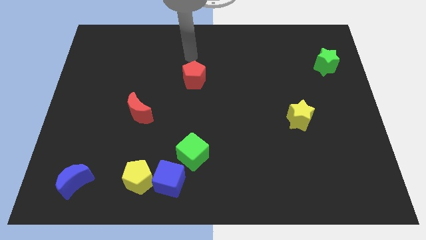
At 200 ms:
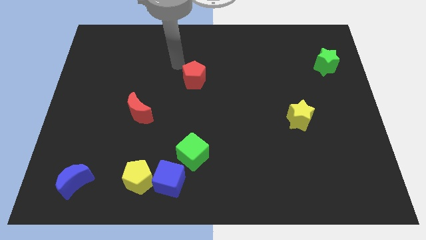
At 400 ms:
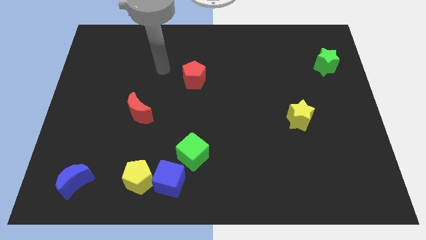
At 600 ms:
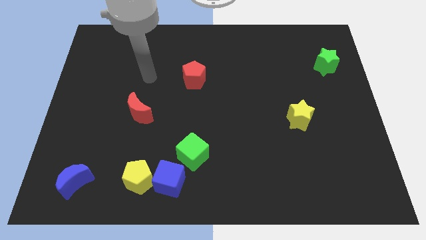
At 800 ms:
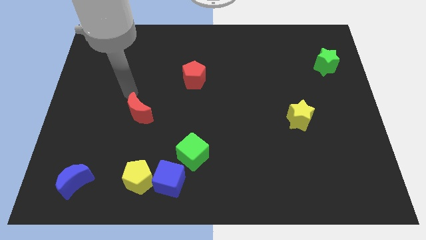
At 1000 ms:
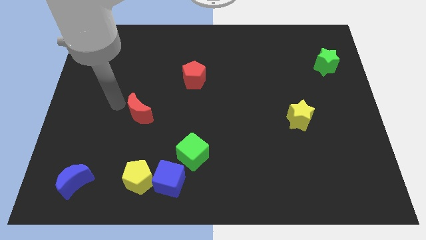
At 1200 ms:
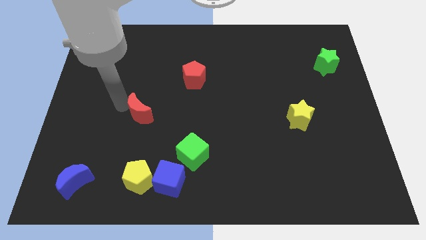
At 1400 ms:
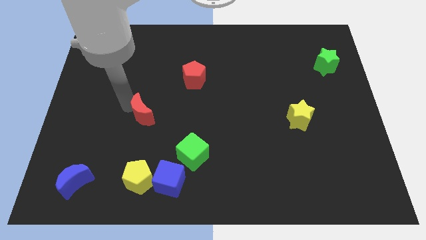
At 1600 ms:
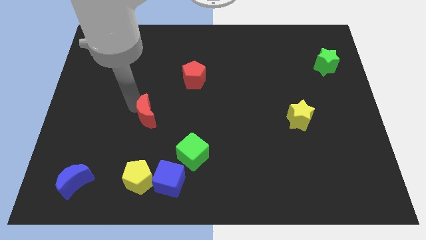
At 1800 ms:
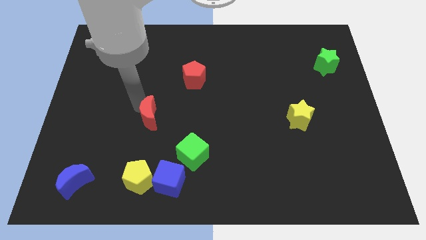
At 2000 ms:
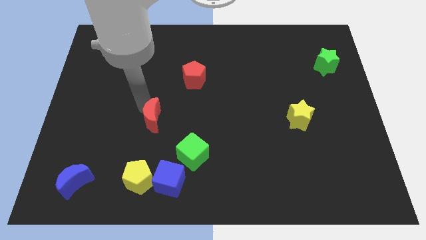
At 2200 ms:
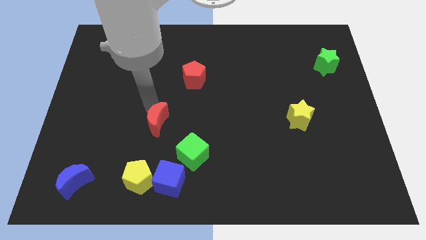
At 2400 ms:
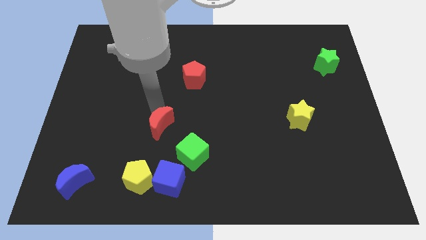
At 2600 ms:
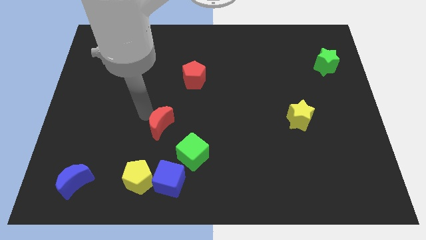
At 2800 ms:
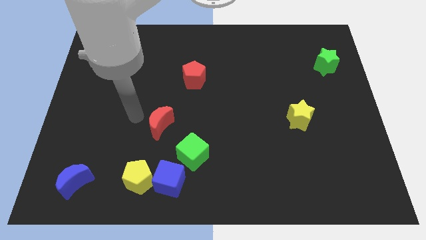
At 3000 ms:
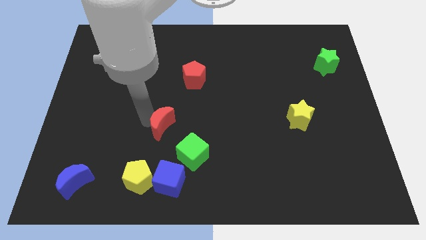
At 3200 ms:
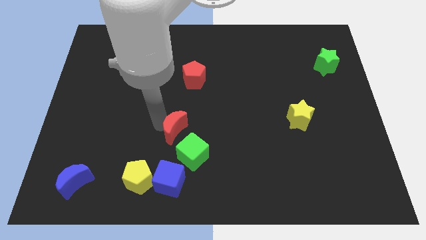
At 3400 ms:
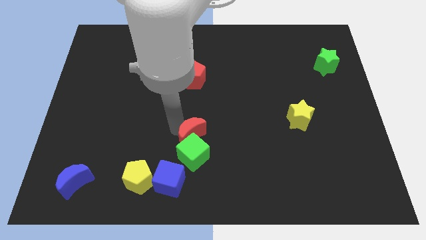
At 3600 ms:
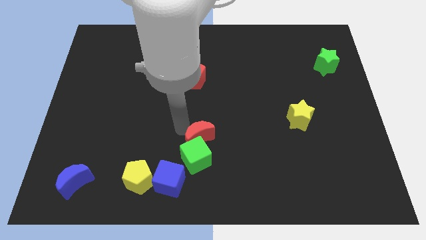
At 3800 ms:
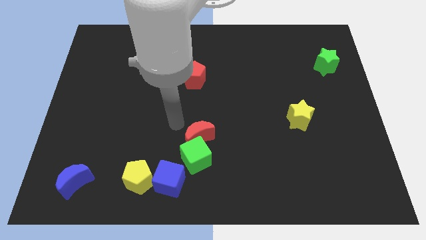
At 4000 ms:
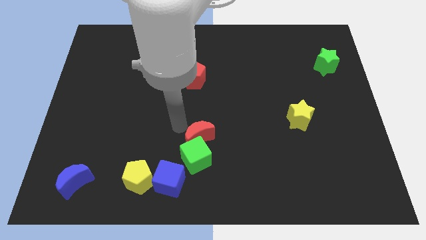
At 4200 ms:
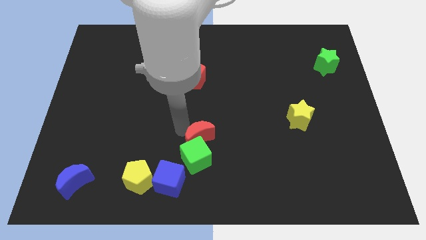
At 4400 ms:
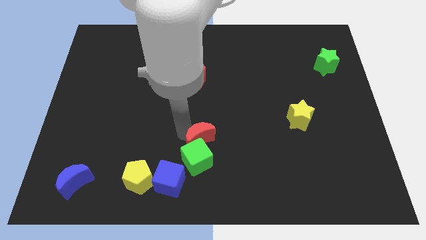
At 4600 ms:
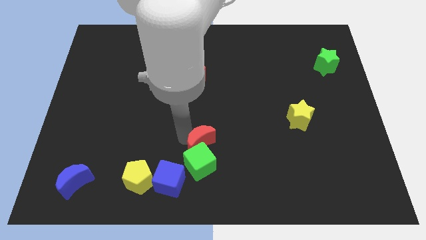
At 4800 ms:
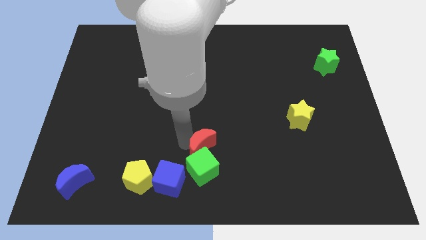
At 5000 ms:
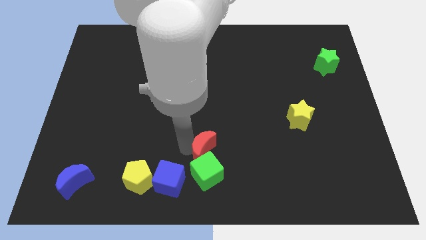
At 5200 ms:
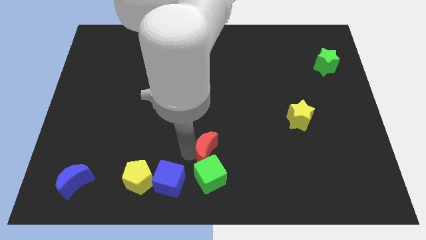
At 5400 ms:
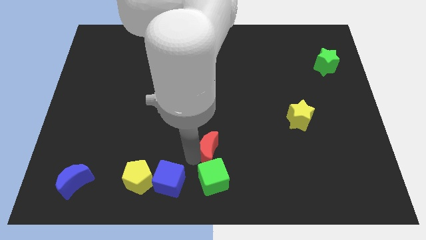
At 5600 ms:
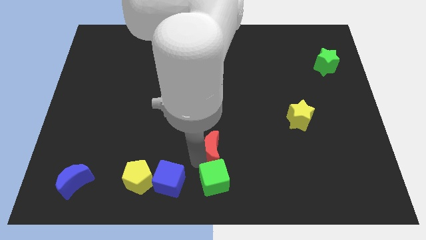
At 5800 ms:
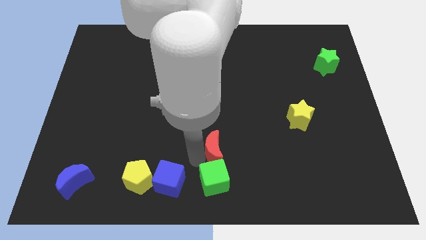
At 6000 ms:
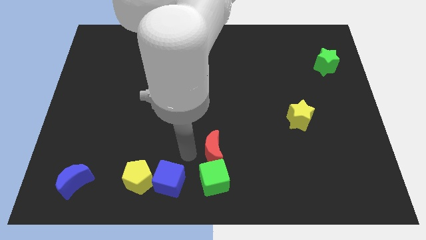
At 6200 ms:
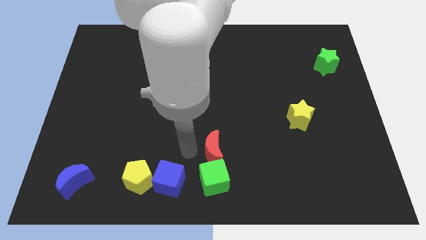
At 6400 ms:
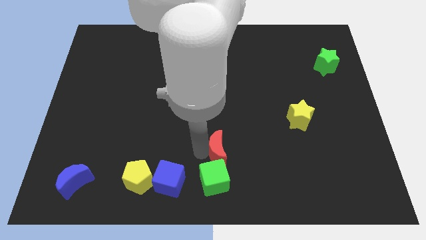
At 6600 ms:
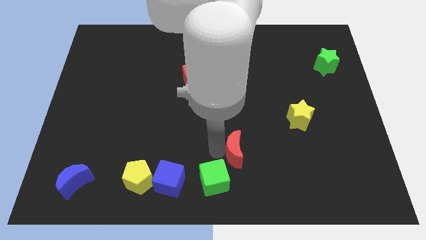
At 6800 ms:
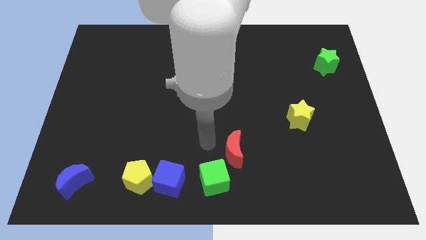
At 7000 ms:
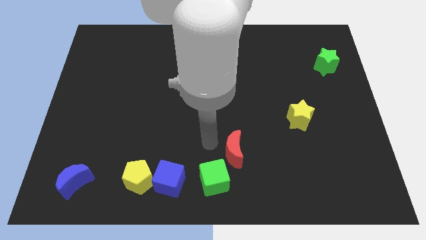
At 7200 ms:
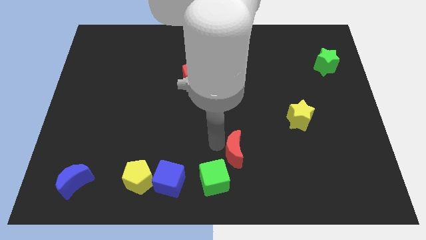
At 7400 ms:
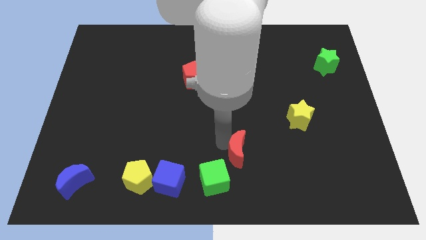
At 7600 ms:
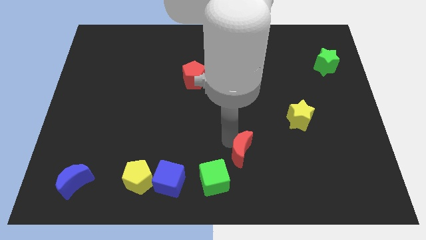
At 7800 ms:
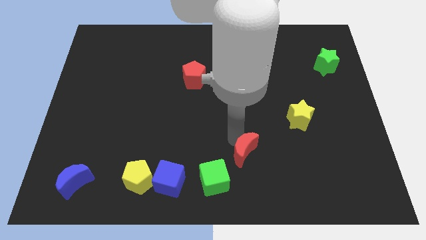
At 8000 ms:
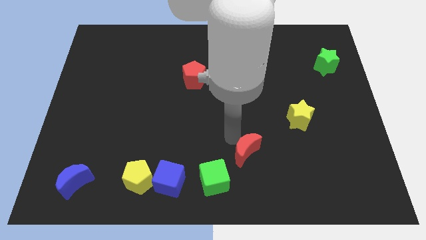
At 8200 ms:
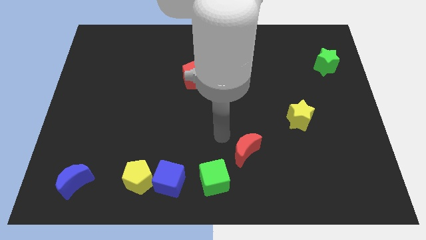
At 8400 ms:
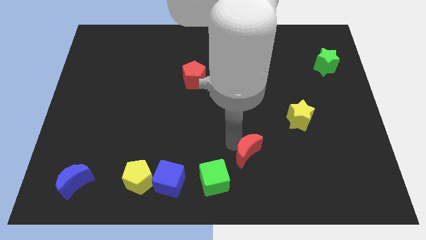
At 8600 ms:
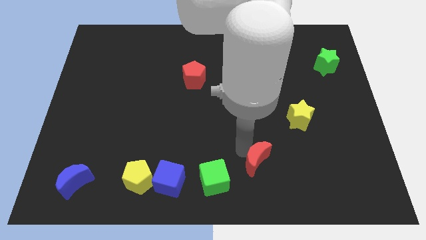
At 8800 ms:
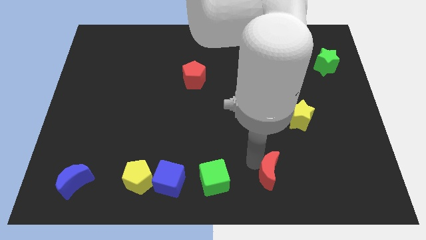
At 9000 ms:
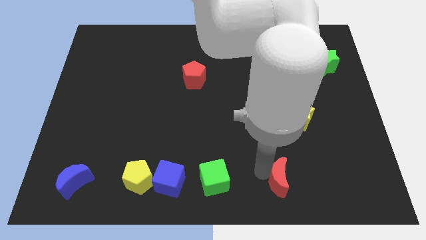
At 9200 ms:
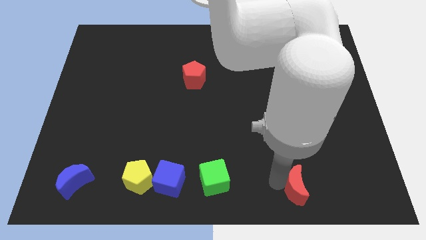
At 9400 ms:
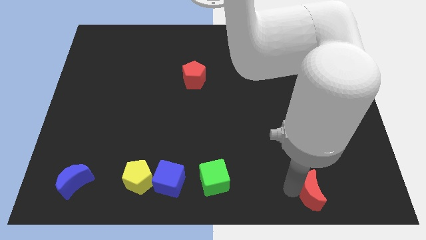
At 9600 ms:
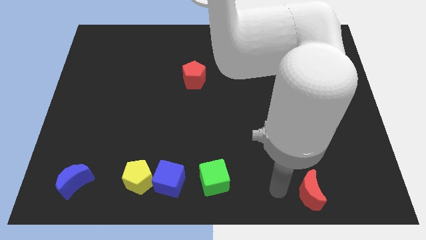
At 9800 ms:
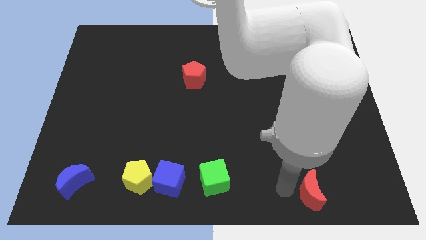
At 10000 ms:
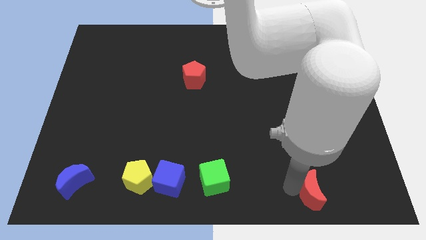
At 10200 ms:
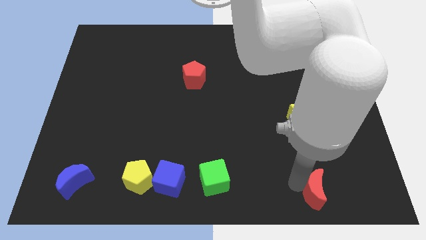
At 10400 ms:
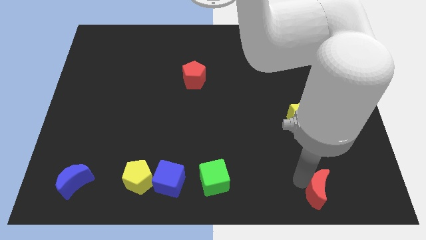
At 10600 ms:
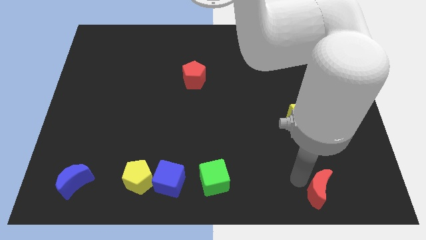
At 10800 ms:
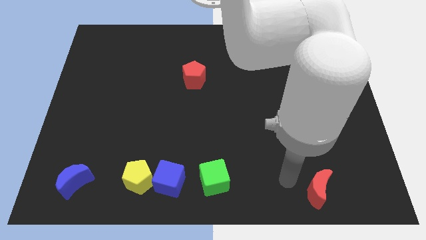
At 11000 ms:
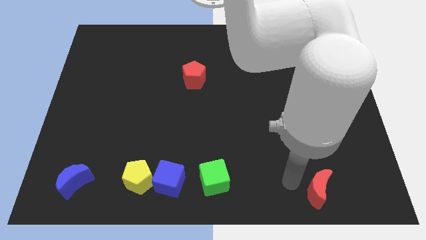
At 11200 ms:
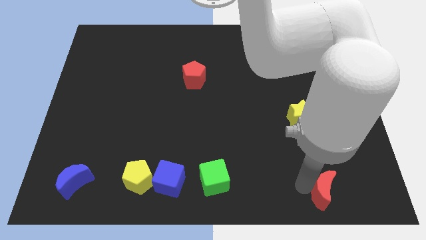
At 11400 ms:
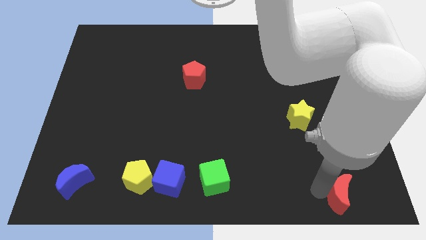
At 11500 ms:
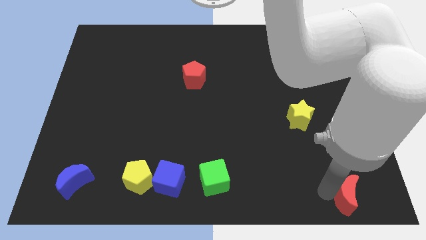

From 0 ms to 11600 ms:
push the red moon to the bottom right of the board

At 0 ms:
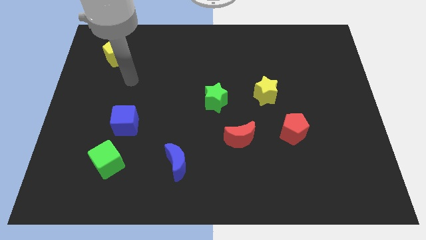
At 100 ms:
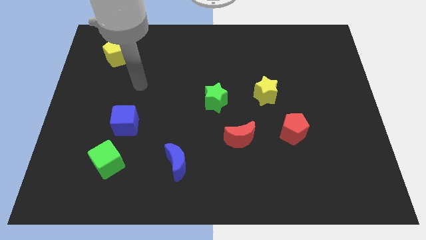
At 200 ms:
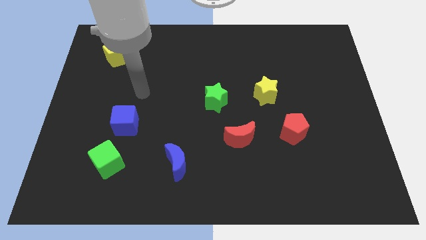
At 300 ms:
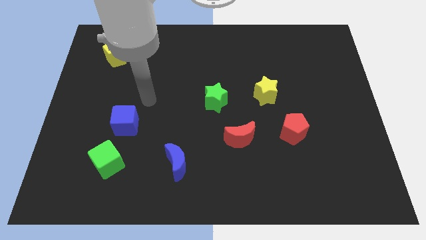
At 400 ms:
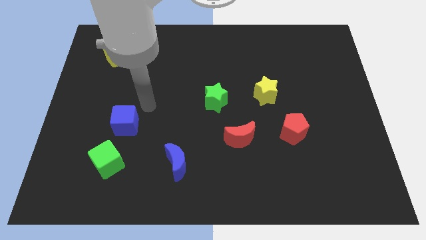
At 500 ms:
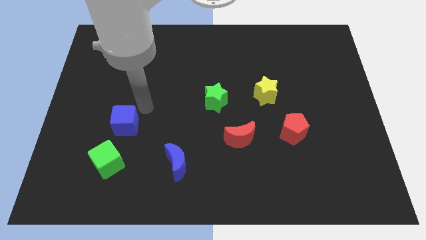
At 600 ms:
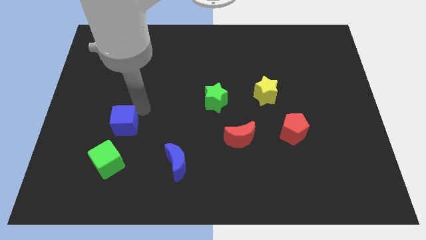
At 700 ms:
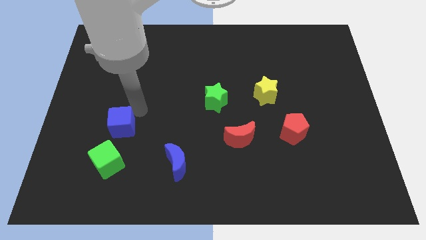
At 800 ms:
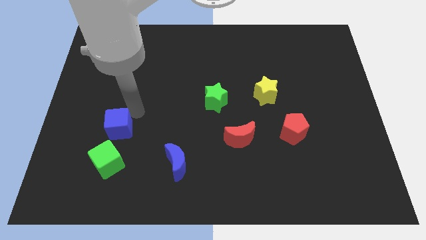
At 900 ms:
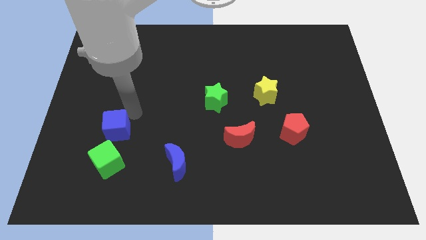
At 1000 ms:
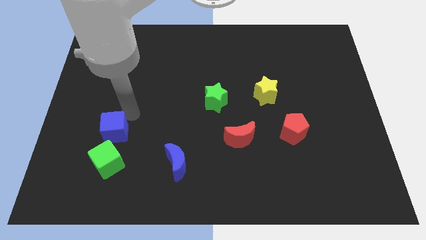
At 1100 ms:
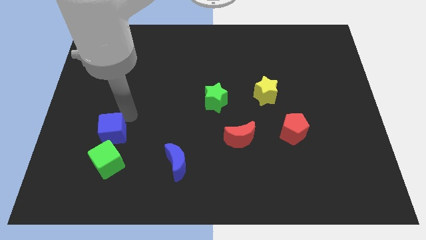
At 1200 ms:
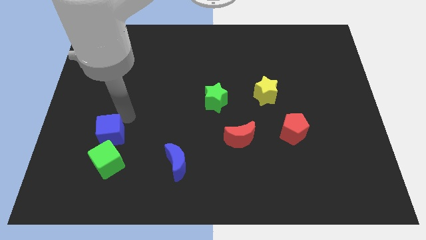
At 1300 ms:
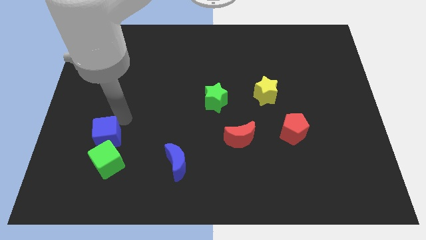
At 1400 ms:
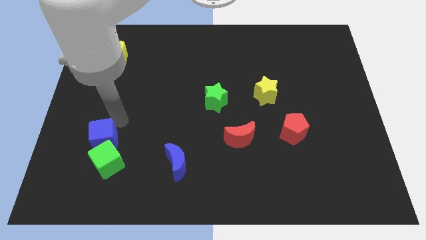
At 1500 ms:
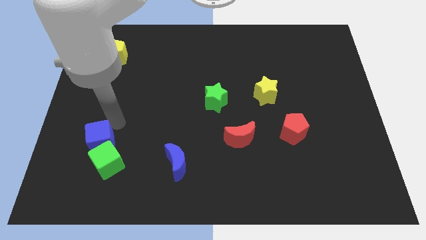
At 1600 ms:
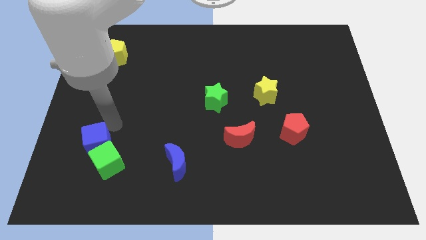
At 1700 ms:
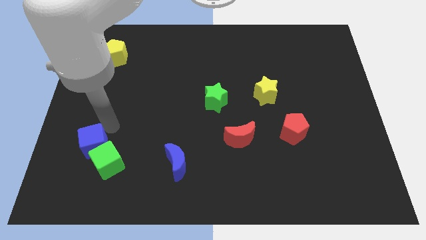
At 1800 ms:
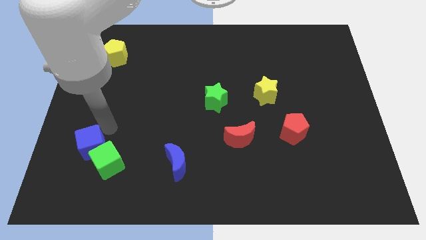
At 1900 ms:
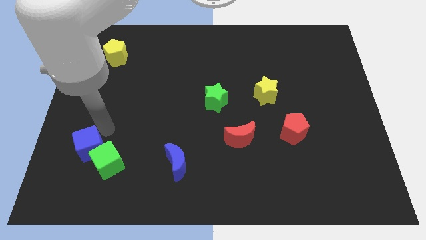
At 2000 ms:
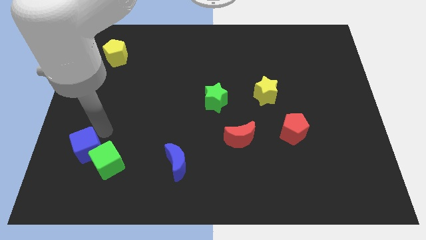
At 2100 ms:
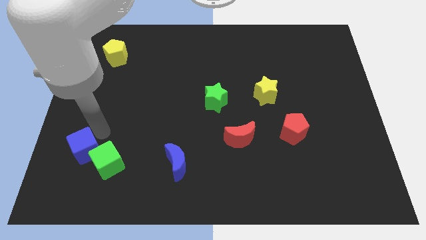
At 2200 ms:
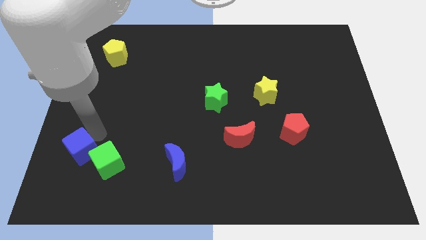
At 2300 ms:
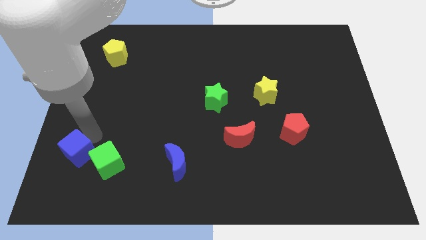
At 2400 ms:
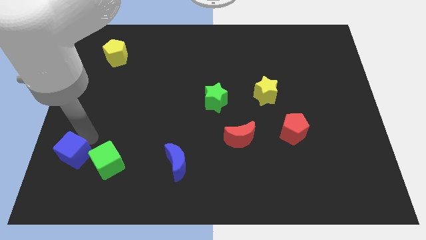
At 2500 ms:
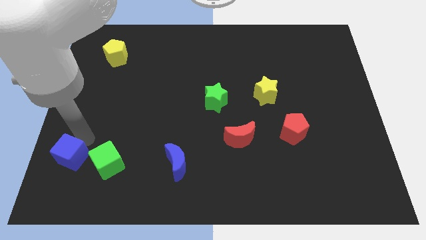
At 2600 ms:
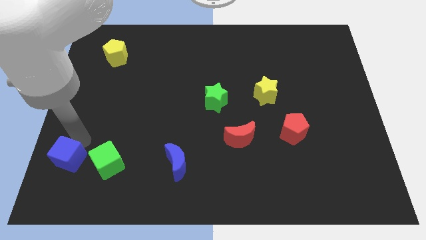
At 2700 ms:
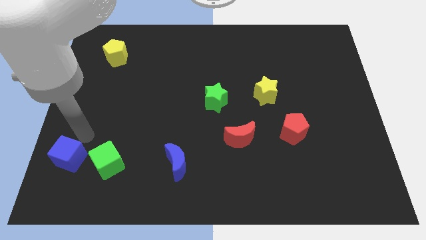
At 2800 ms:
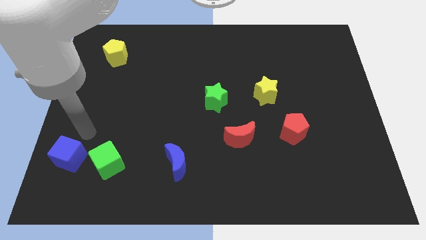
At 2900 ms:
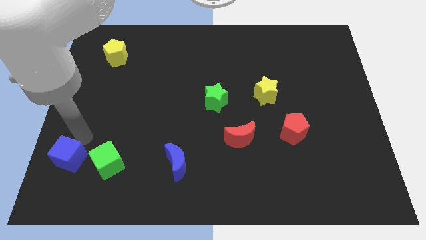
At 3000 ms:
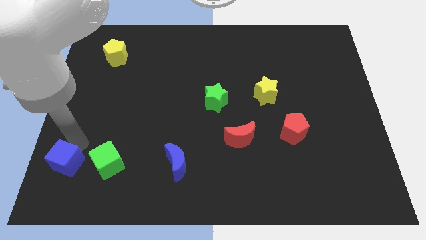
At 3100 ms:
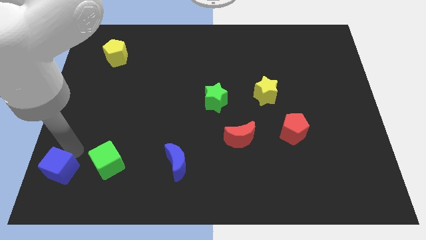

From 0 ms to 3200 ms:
move the blue cube to the bottom left of the board
